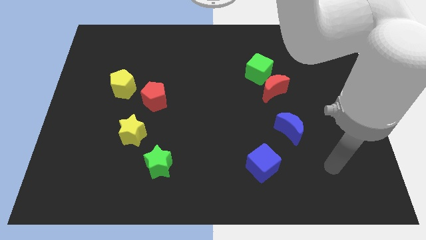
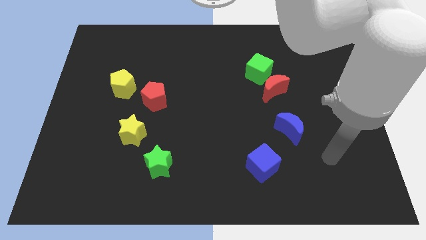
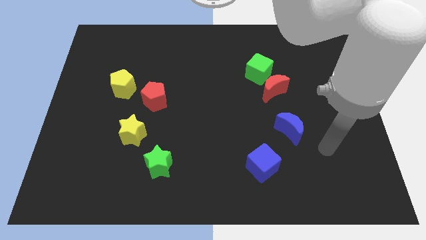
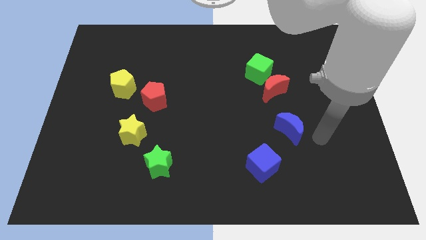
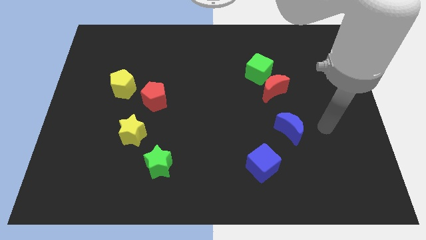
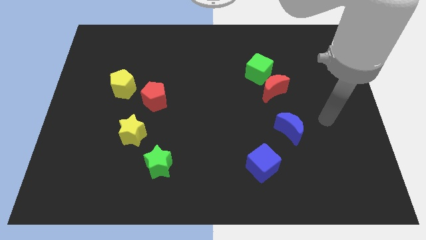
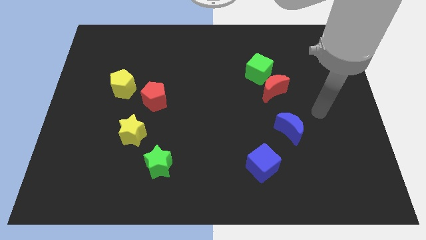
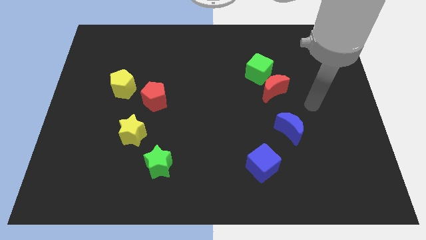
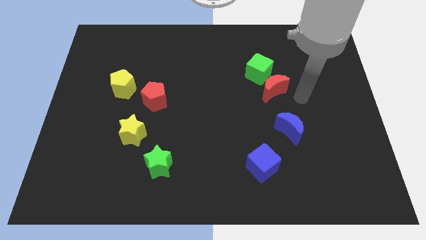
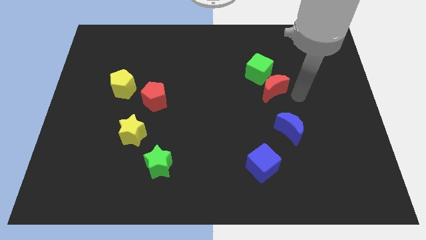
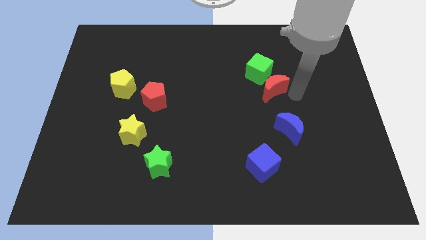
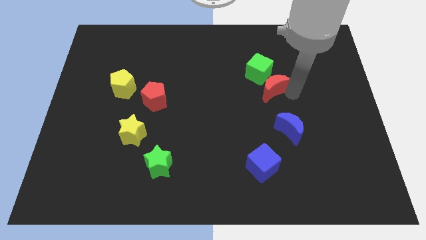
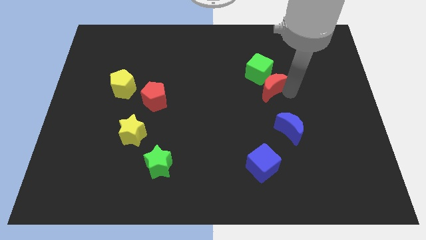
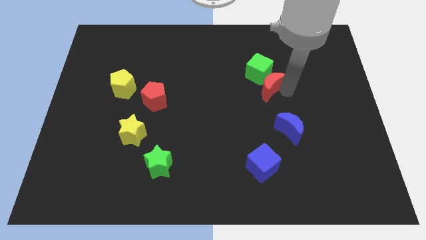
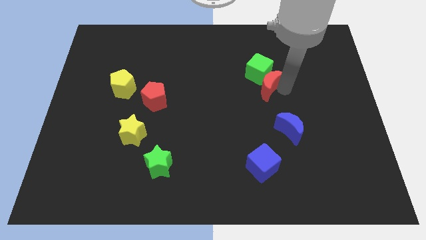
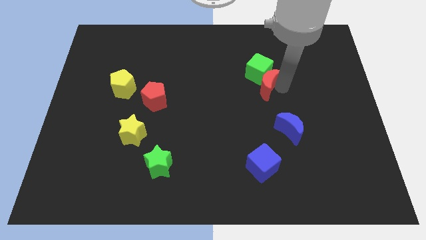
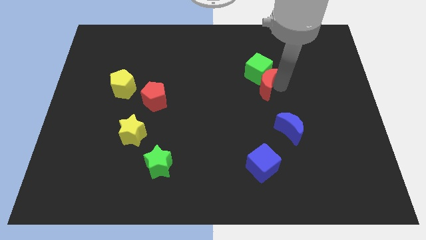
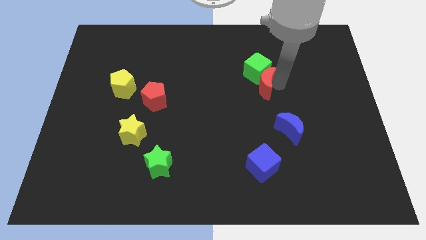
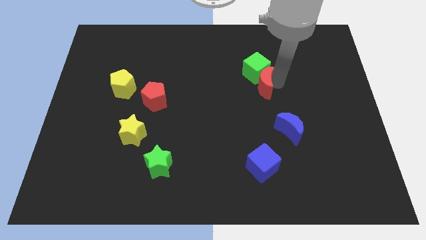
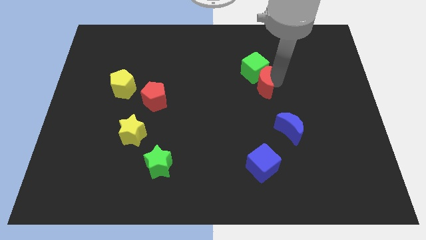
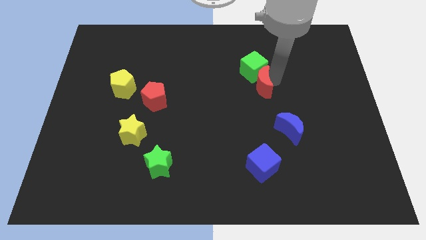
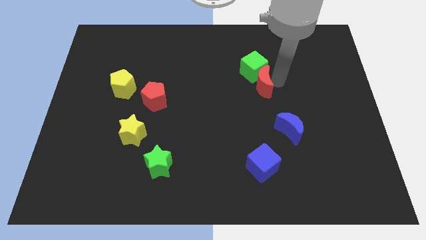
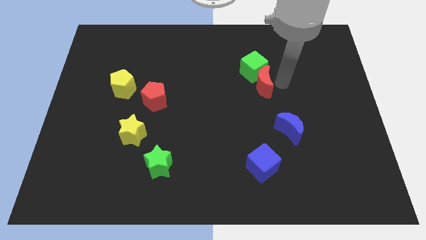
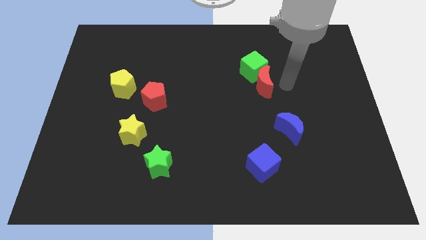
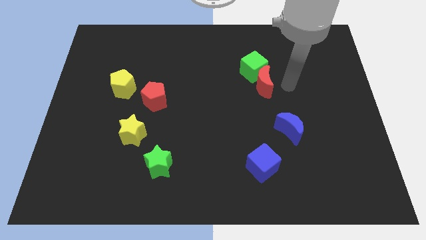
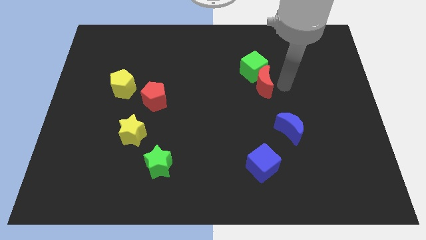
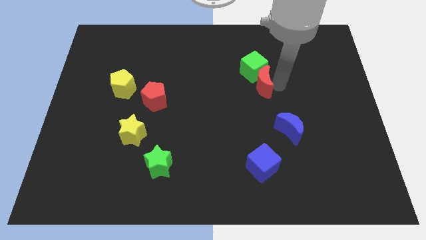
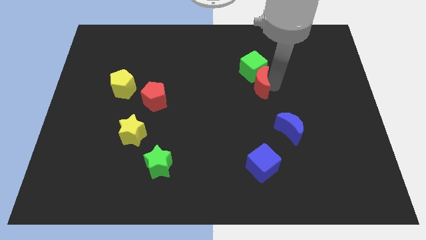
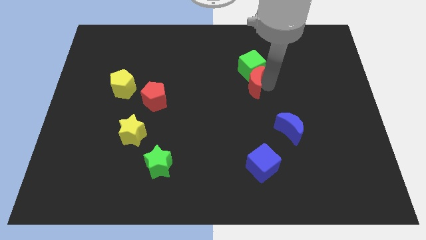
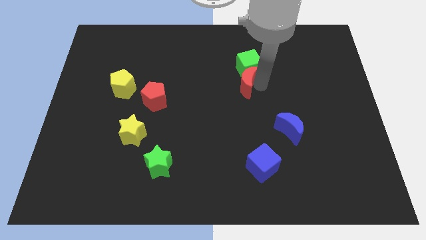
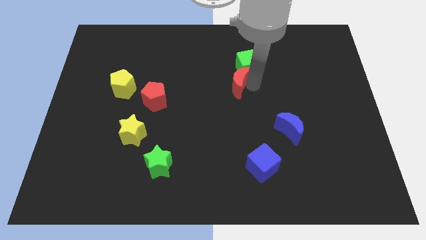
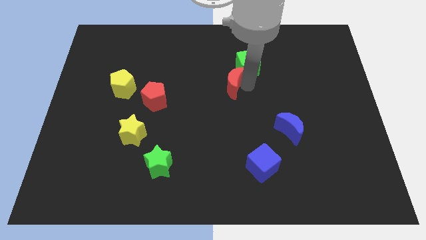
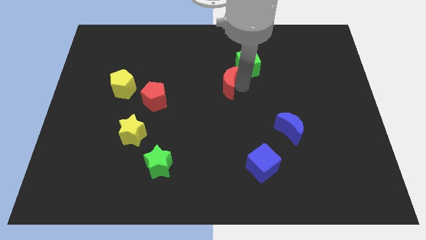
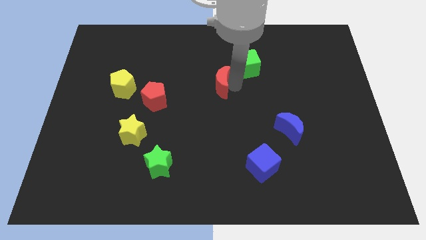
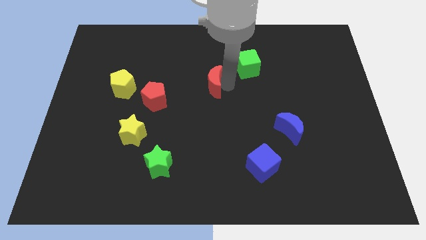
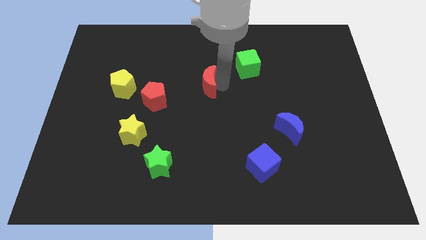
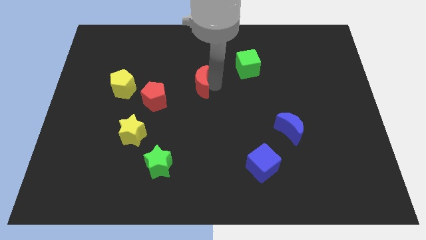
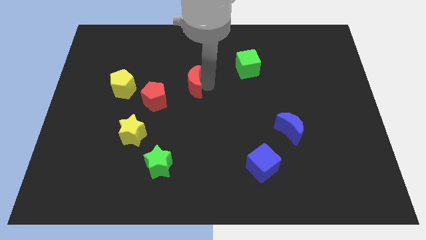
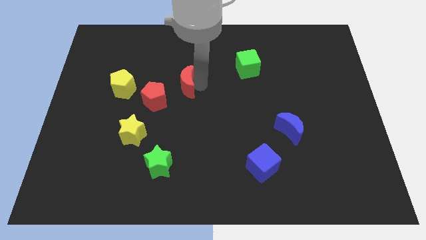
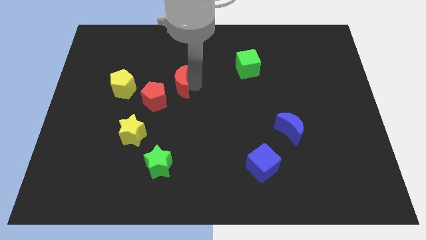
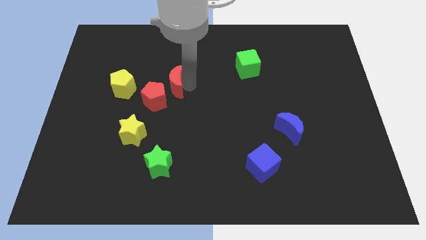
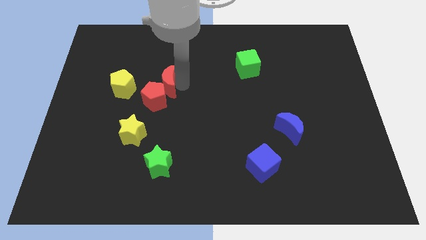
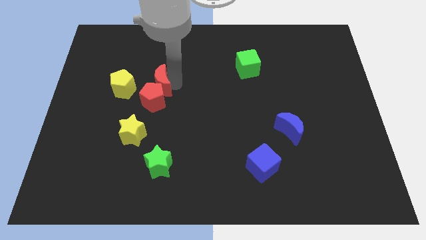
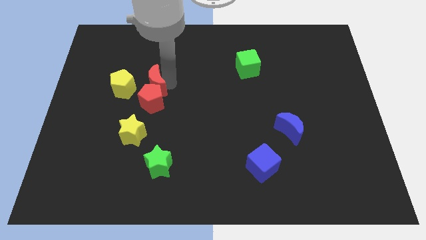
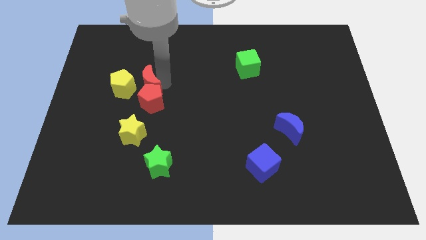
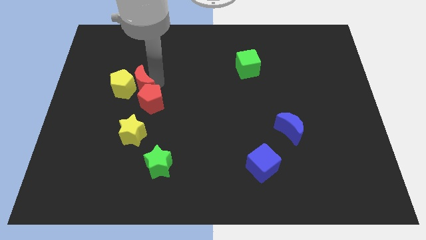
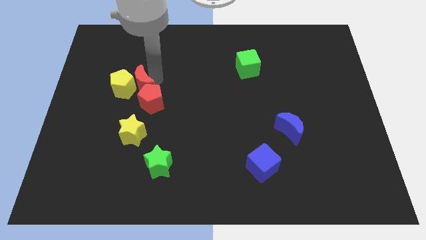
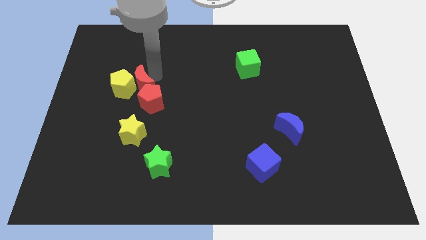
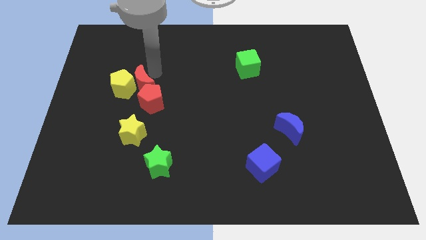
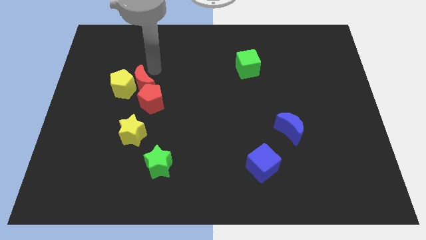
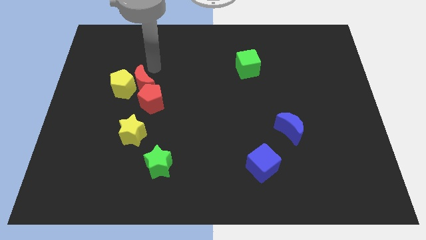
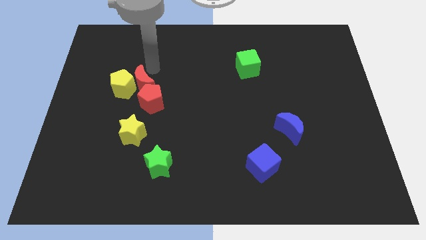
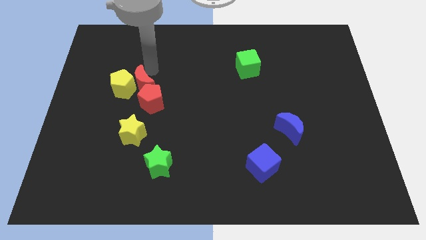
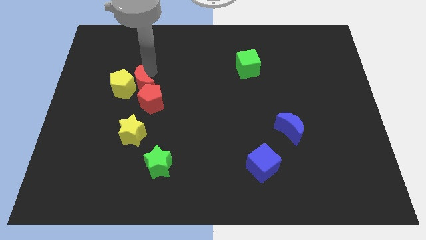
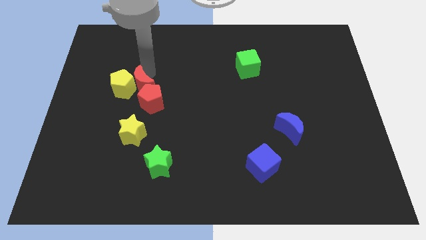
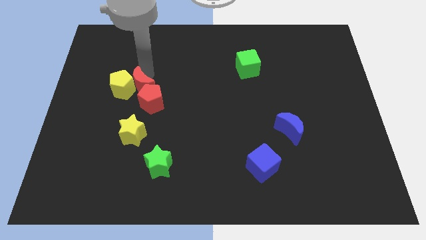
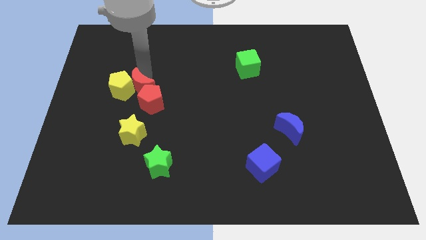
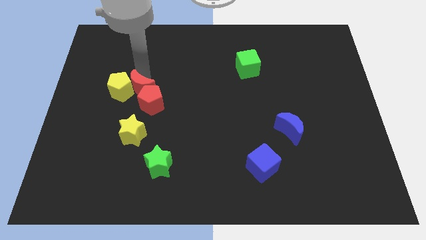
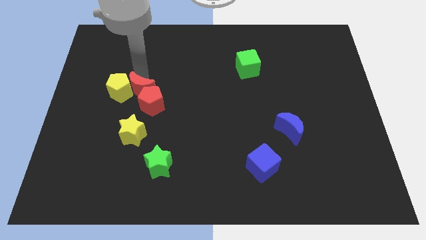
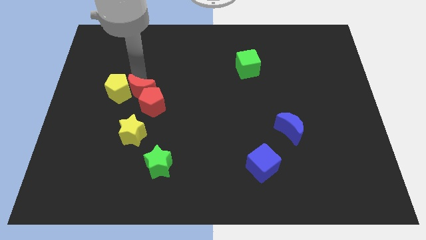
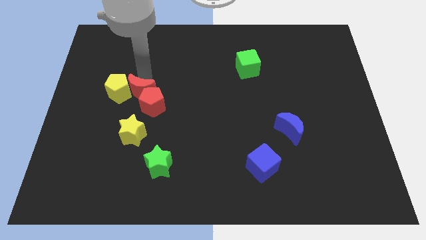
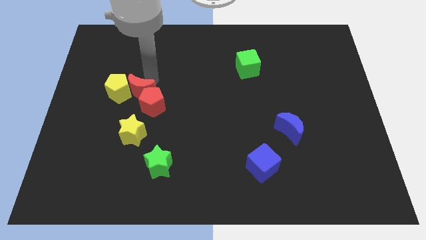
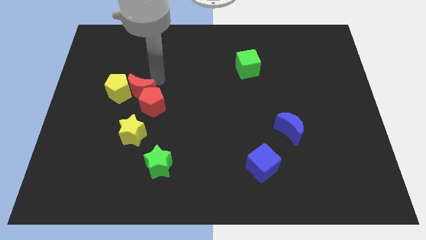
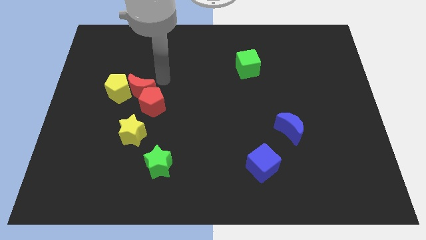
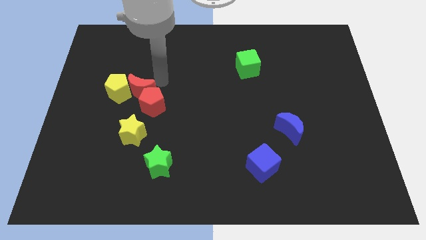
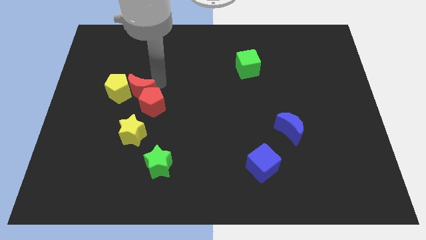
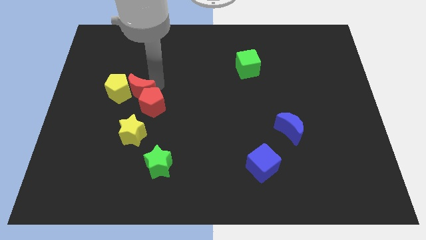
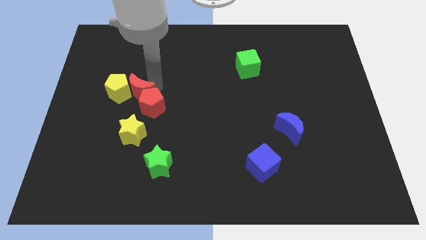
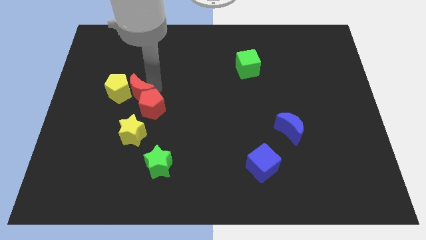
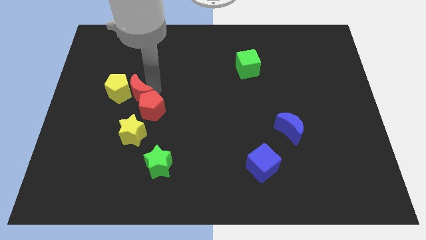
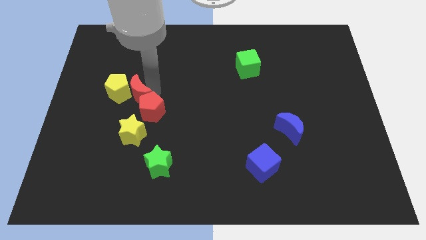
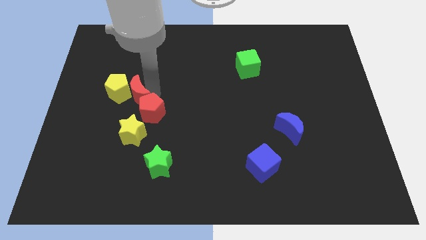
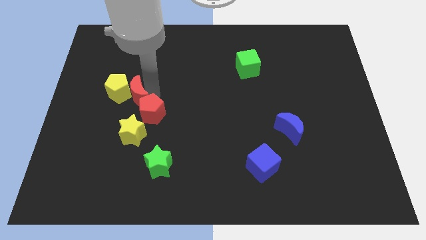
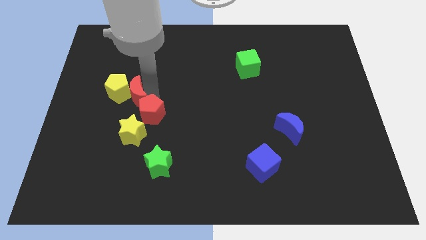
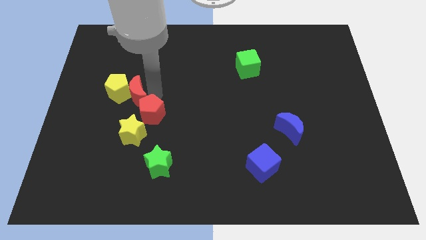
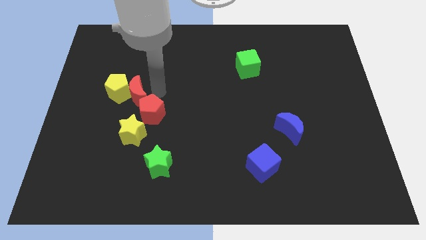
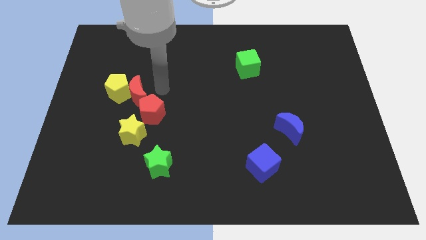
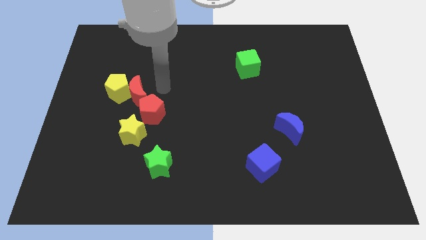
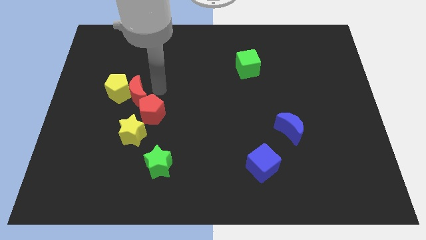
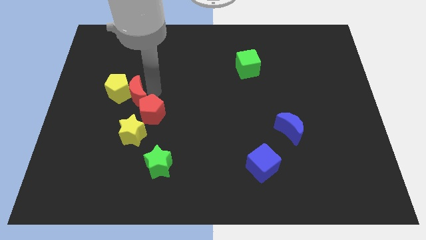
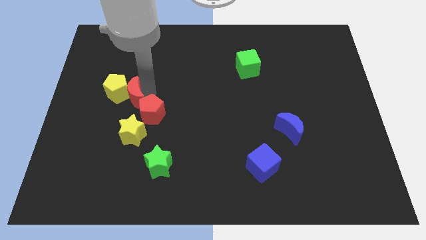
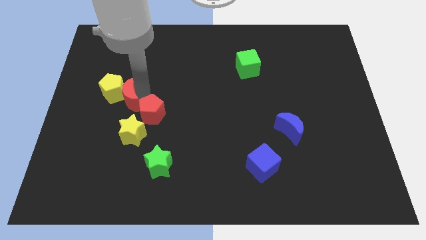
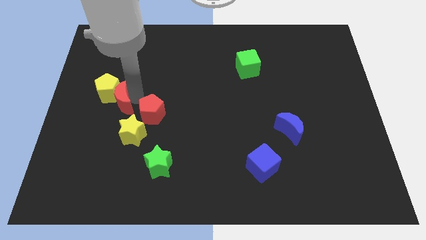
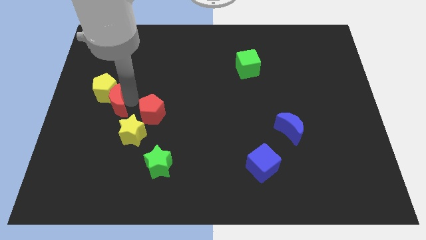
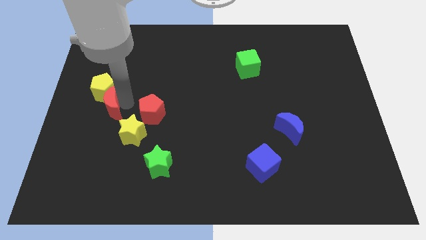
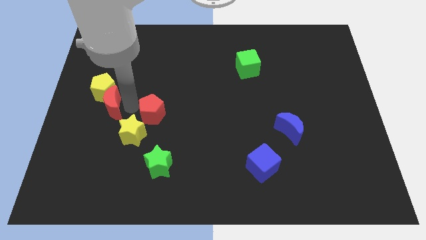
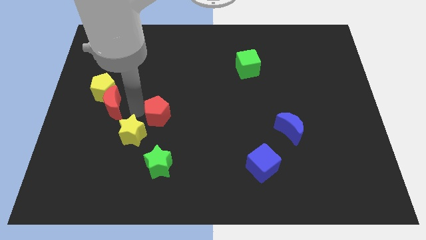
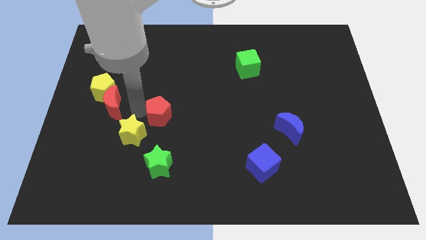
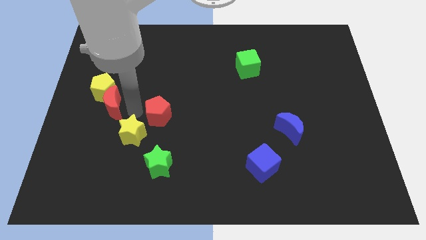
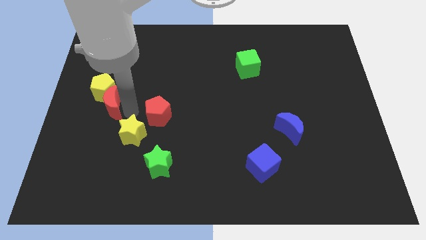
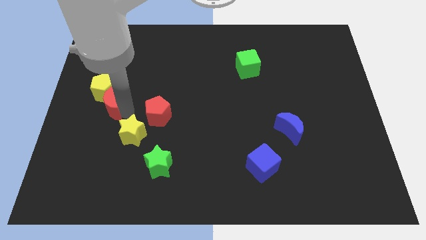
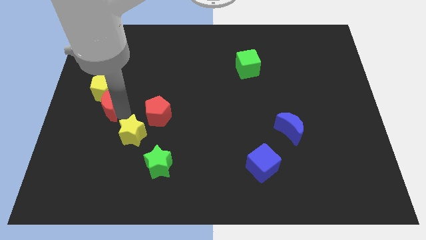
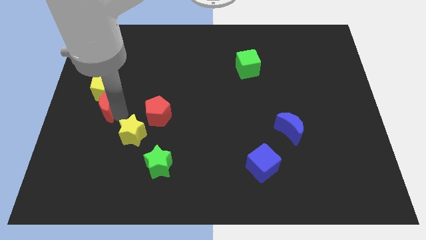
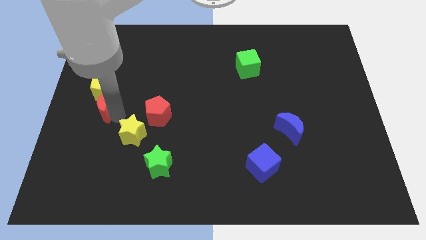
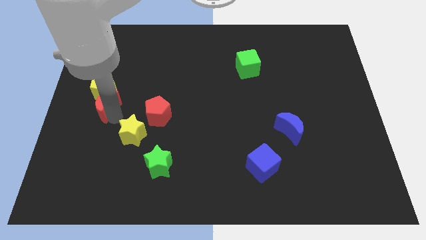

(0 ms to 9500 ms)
move the red moon to the center left
